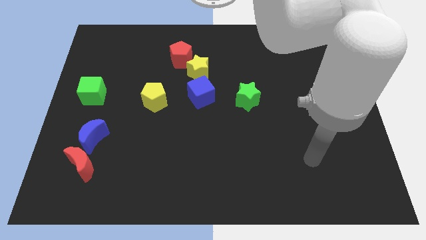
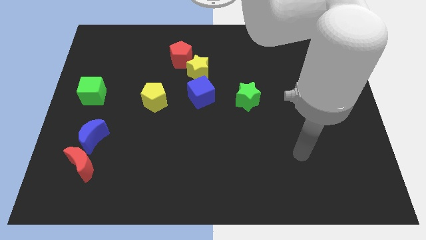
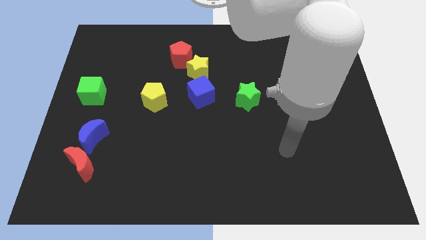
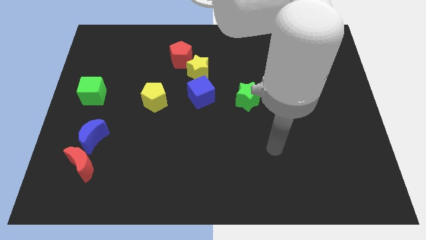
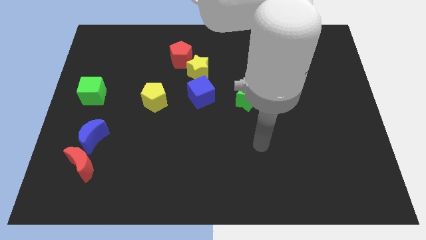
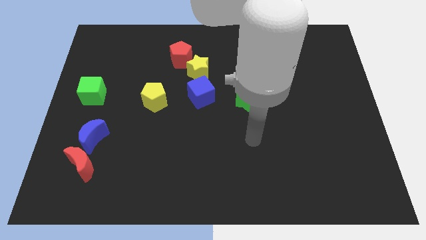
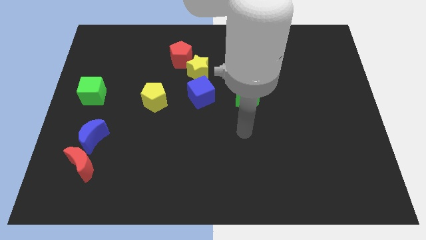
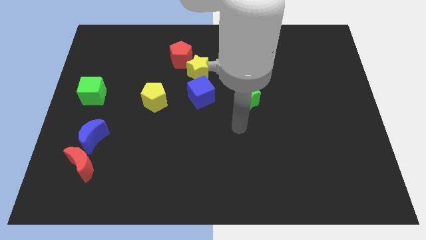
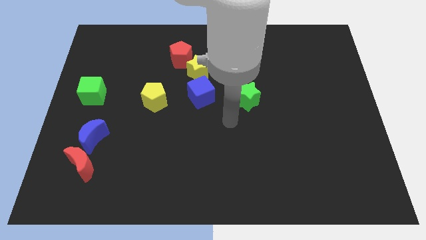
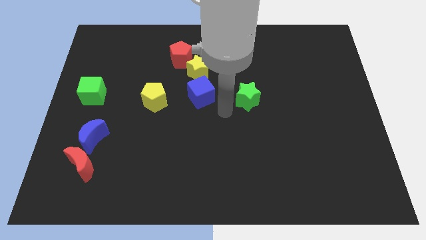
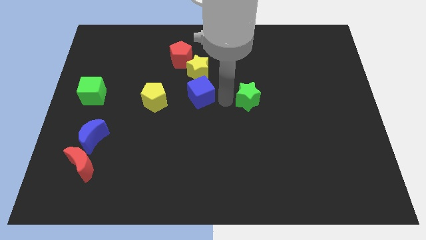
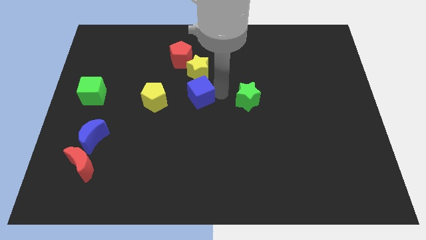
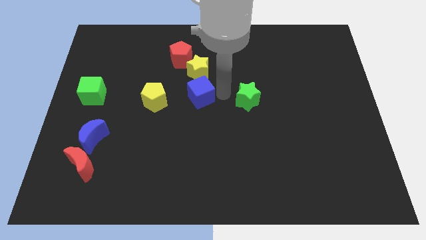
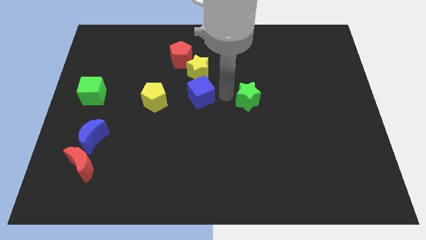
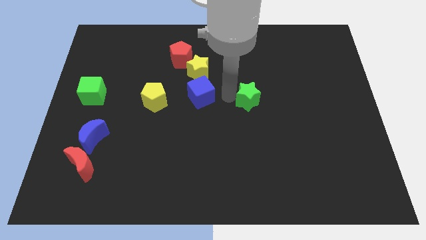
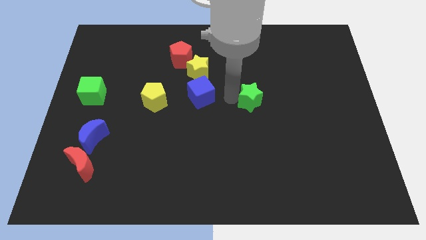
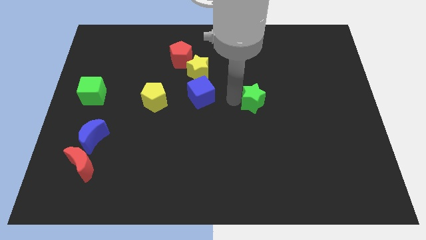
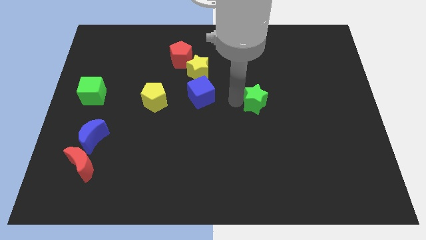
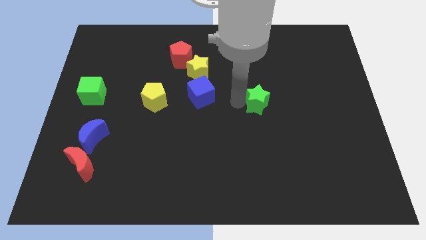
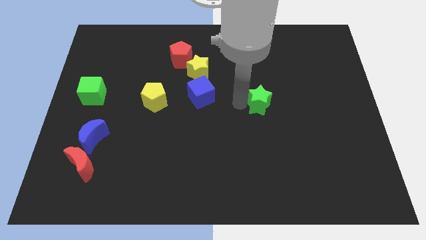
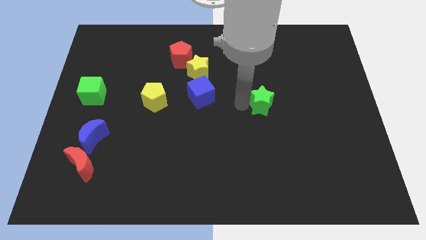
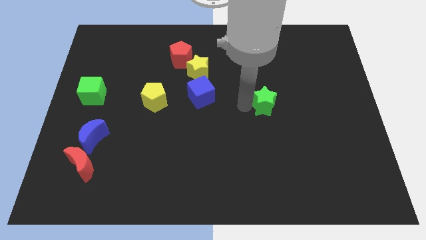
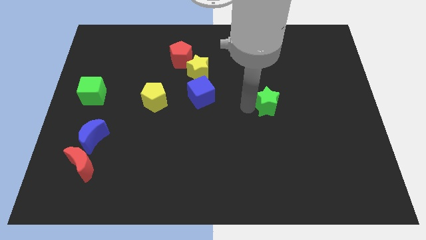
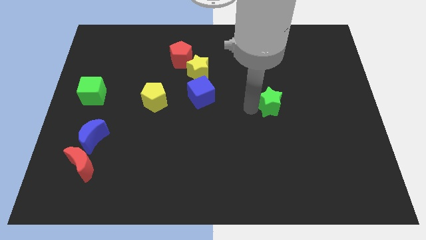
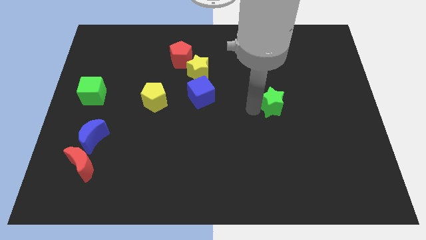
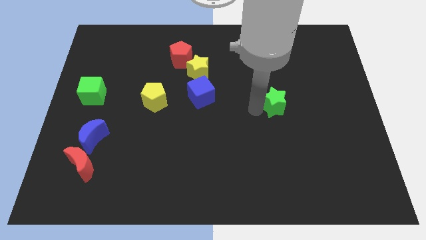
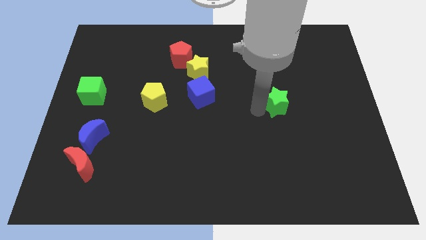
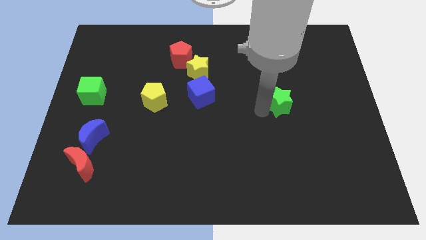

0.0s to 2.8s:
push the green star a little bit to the right

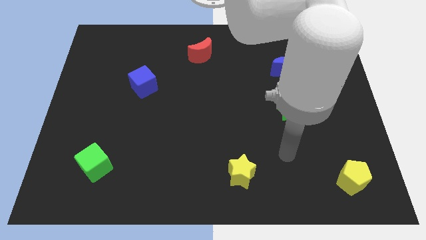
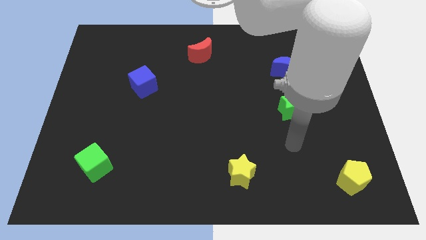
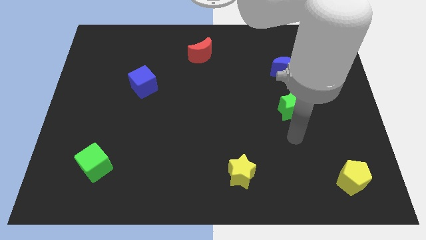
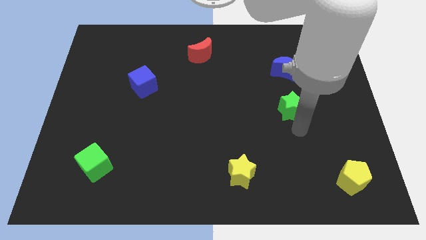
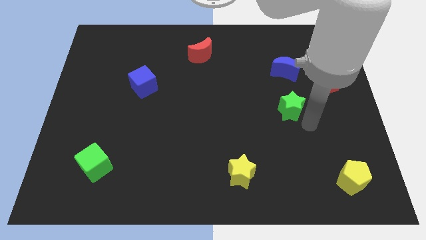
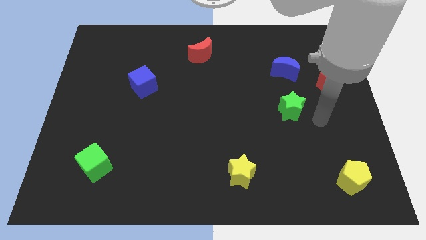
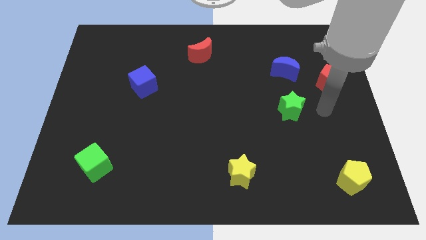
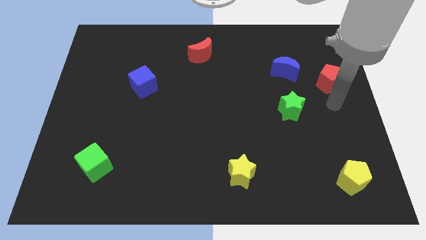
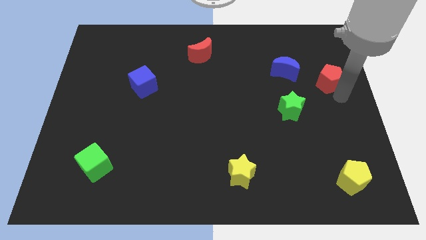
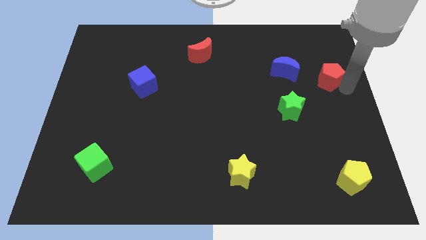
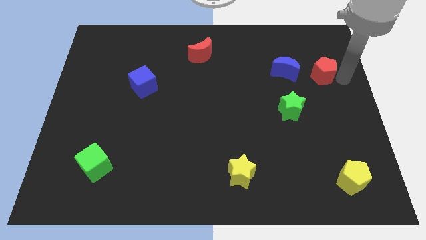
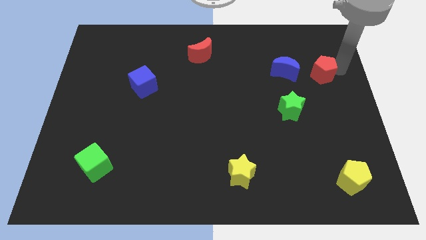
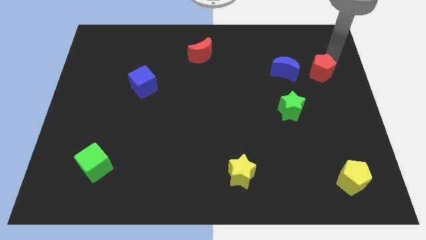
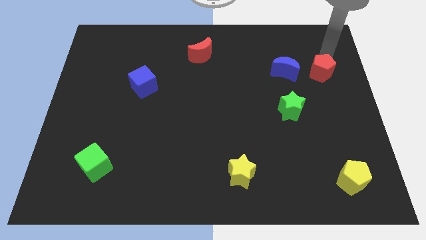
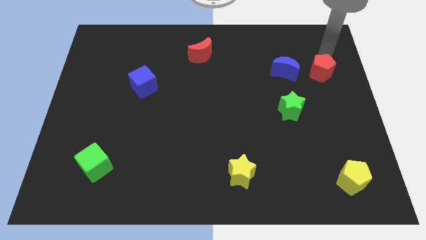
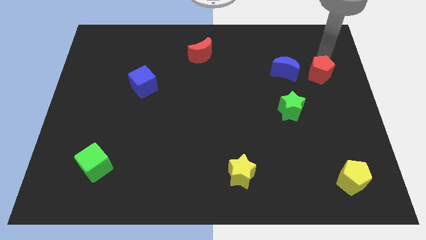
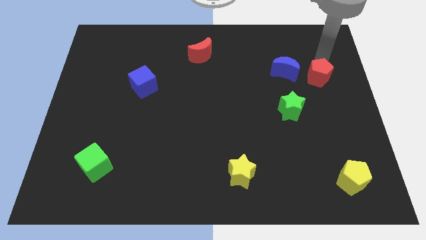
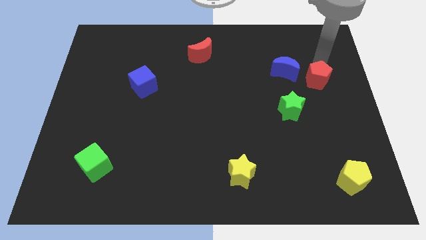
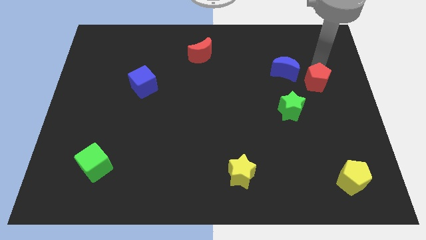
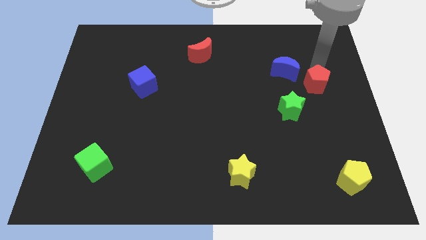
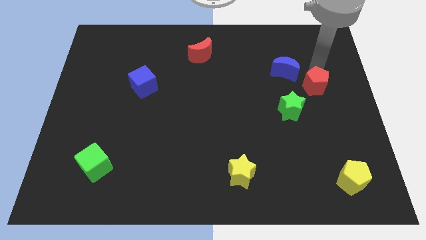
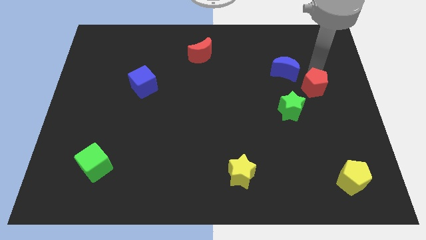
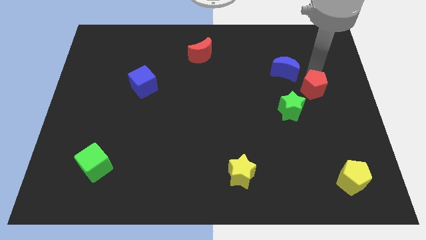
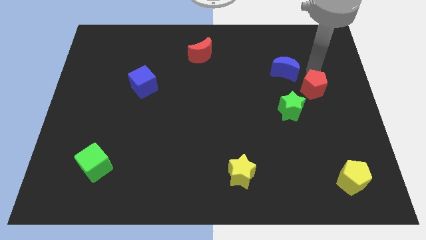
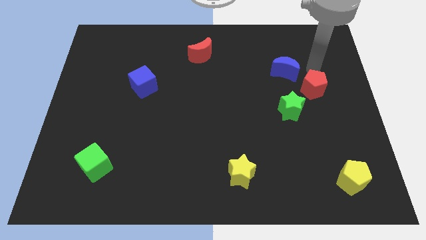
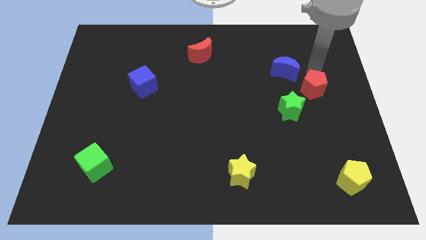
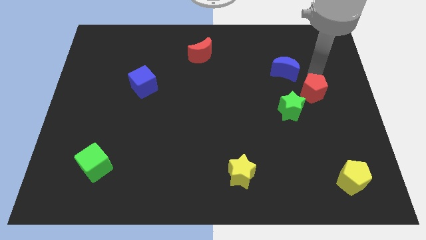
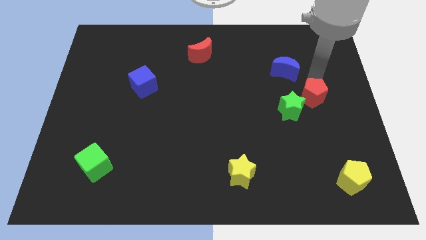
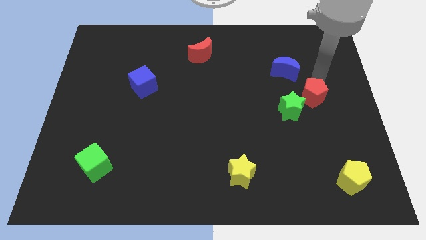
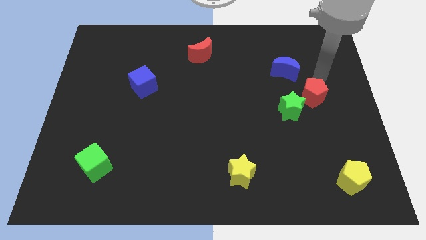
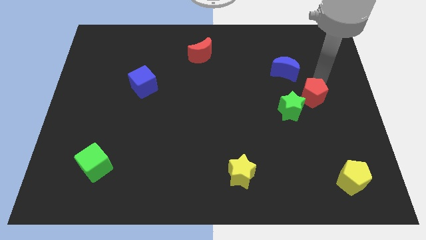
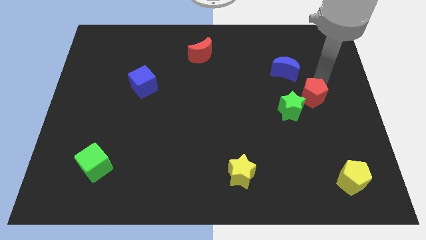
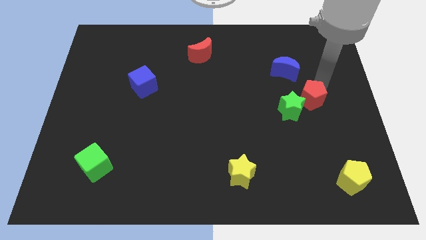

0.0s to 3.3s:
push the red pentagon slightly down and left diagonally

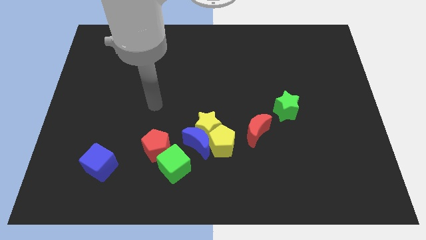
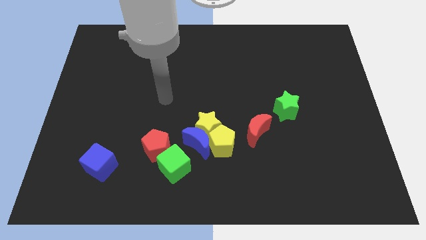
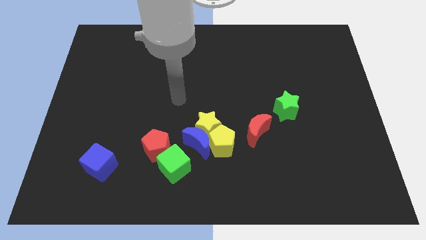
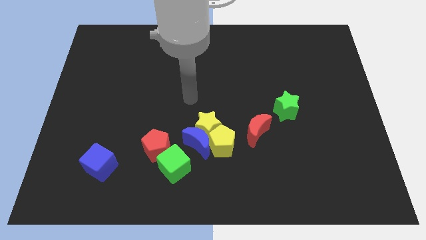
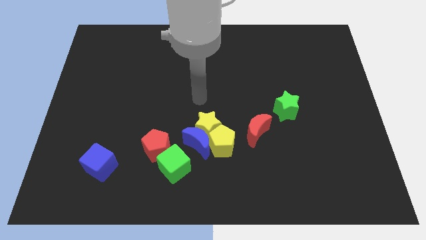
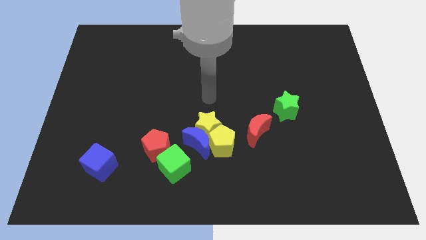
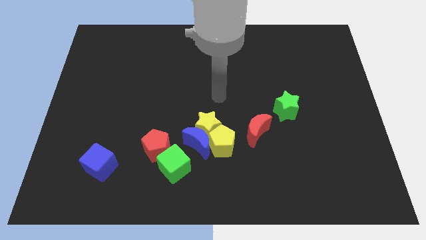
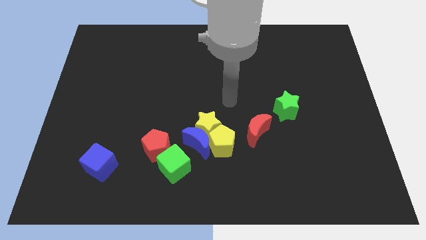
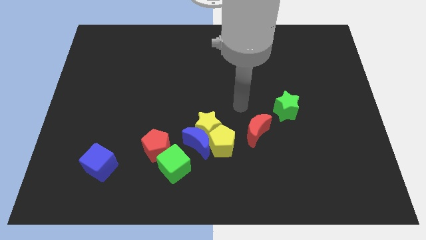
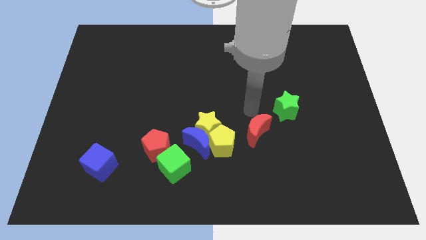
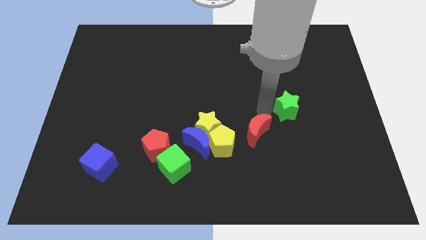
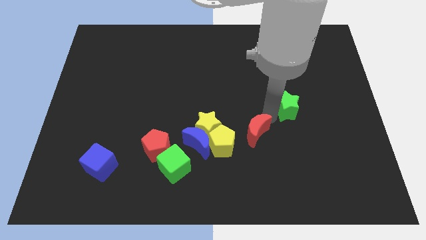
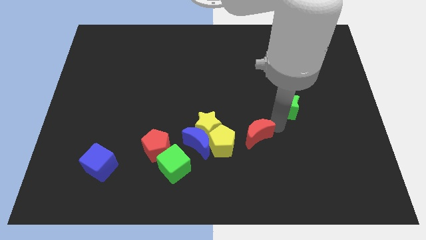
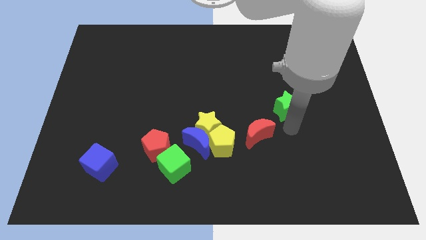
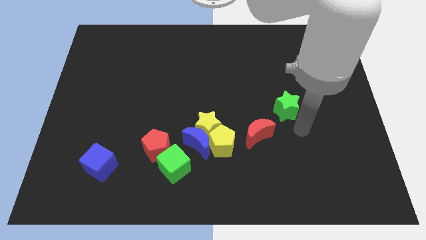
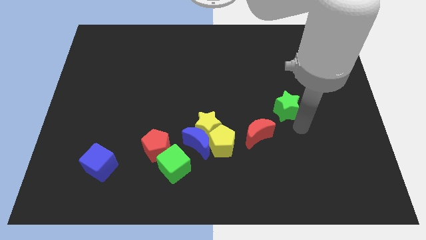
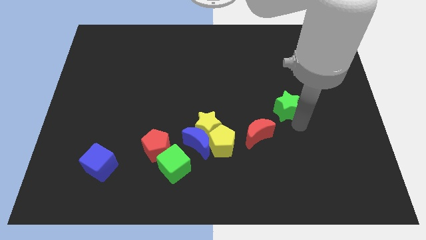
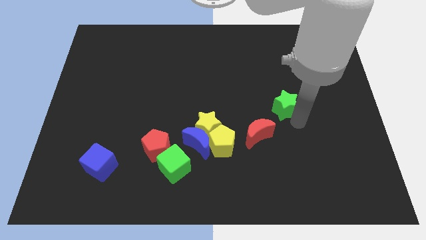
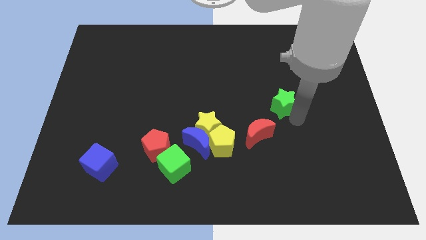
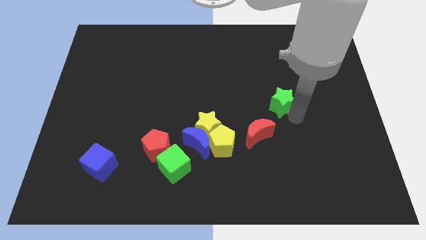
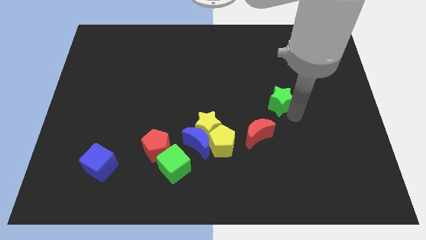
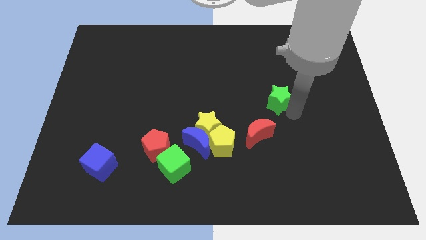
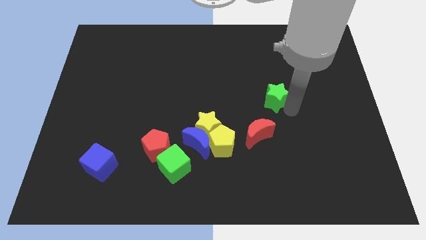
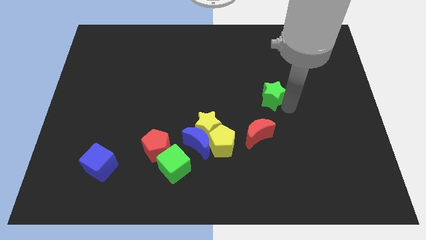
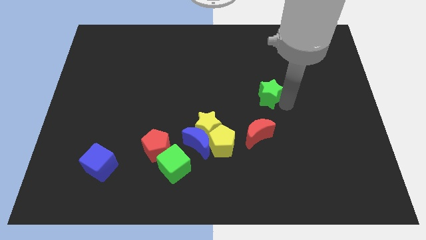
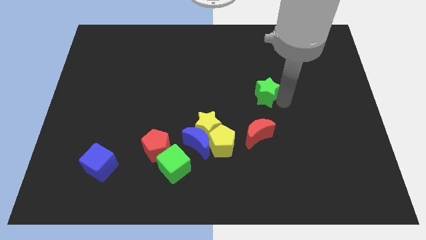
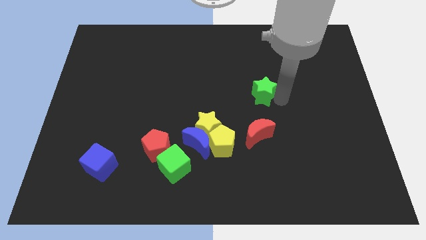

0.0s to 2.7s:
push the green star upwards and then to the left slightly
